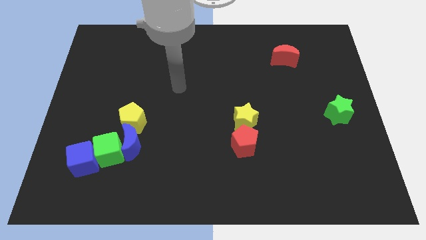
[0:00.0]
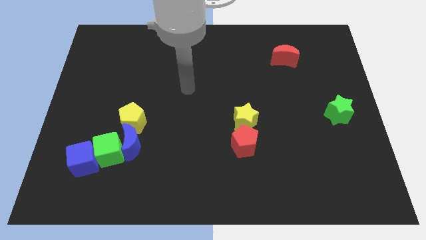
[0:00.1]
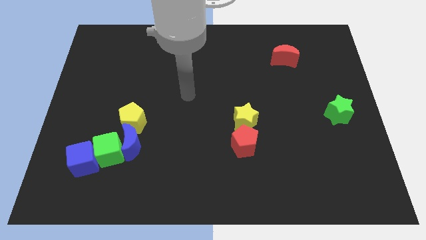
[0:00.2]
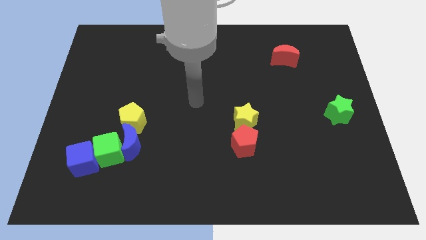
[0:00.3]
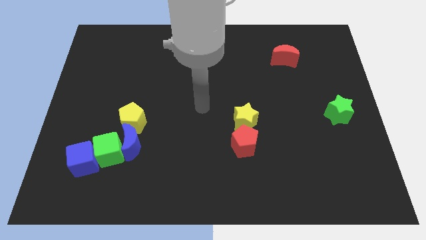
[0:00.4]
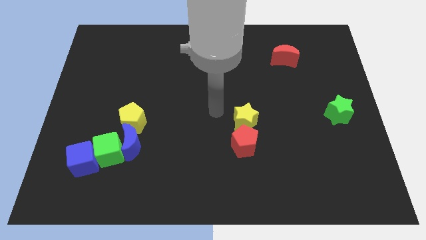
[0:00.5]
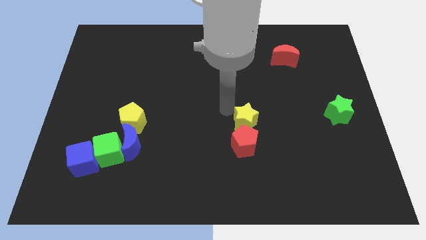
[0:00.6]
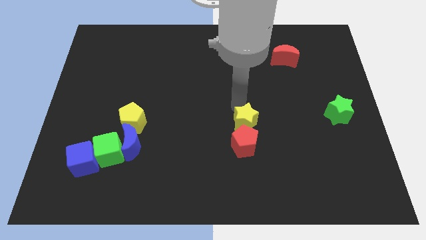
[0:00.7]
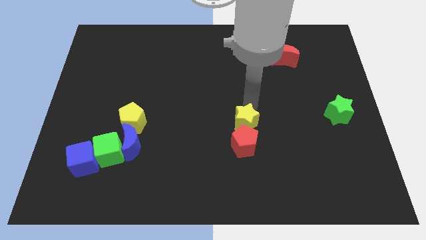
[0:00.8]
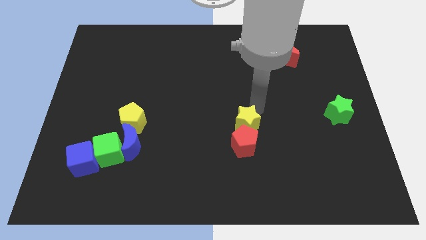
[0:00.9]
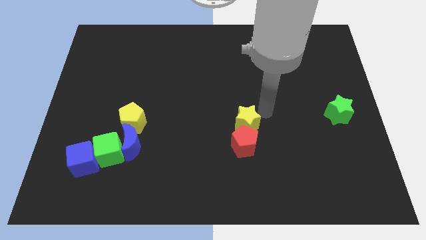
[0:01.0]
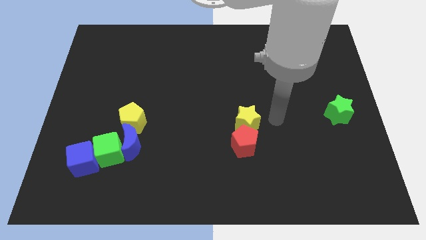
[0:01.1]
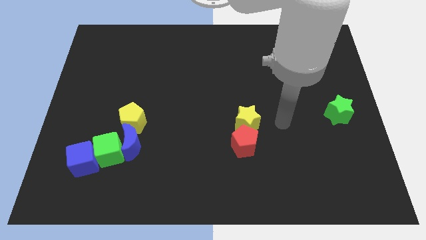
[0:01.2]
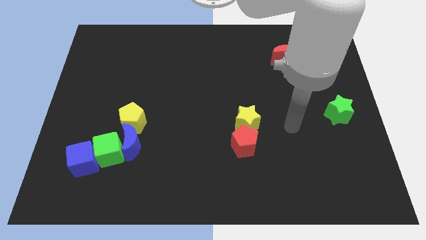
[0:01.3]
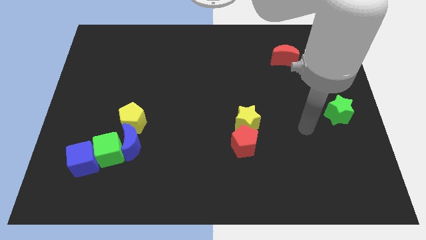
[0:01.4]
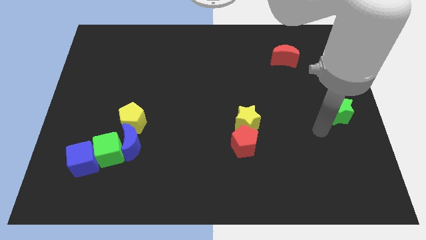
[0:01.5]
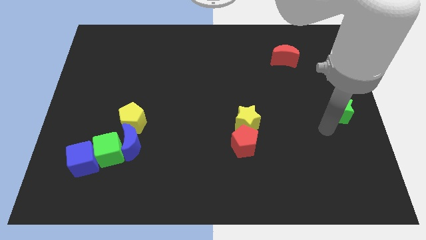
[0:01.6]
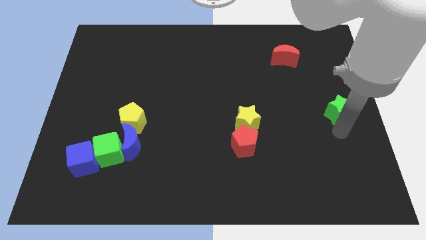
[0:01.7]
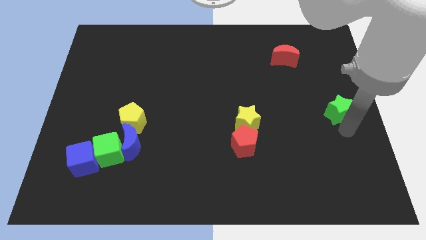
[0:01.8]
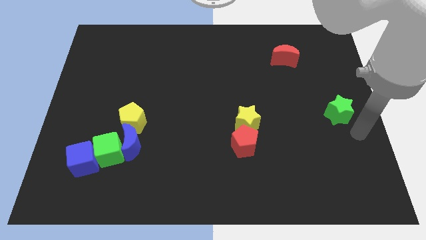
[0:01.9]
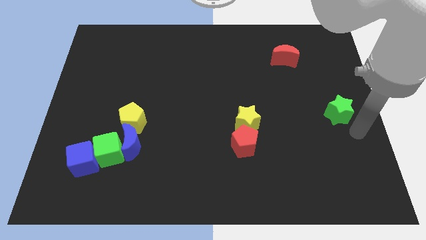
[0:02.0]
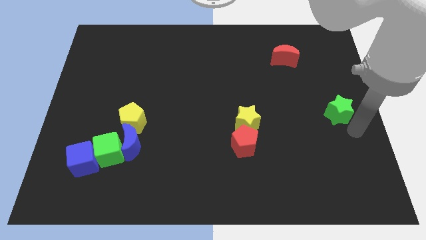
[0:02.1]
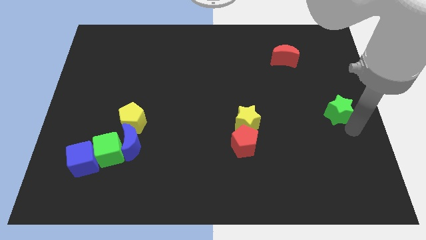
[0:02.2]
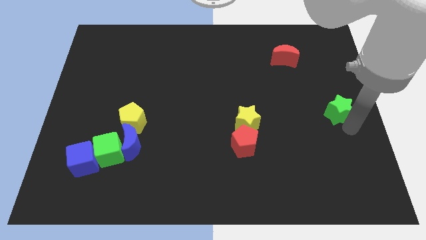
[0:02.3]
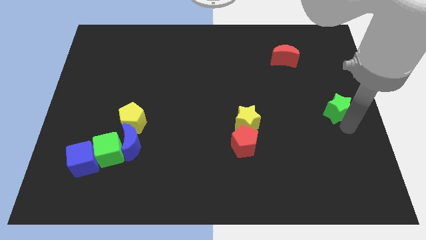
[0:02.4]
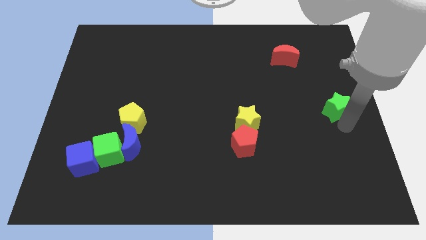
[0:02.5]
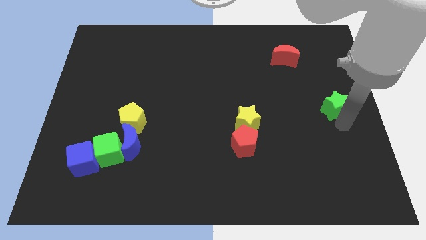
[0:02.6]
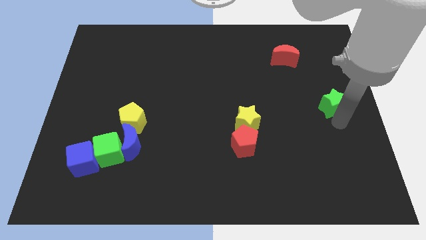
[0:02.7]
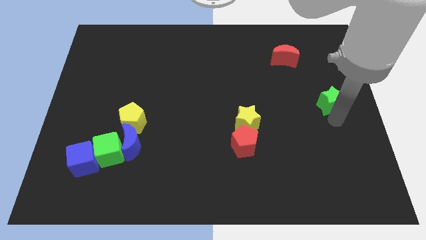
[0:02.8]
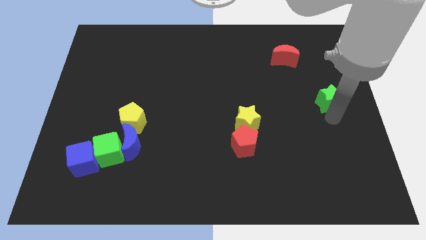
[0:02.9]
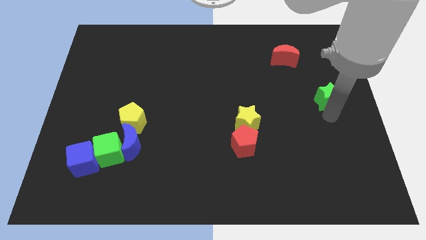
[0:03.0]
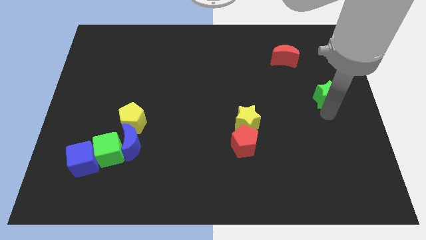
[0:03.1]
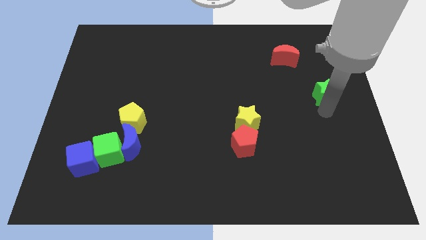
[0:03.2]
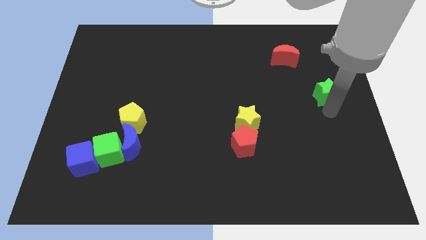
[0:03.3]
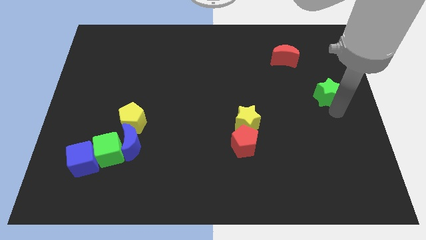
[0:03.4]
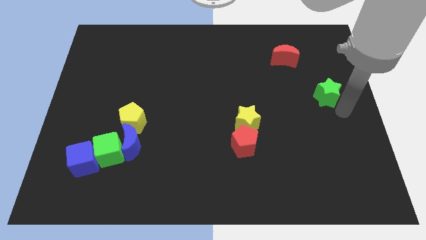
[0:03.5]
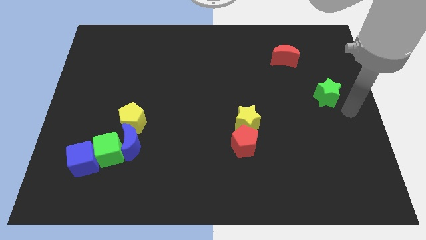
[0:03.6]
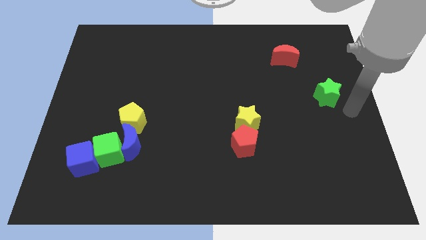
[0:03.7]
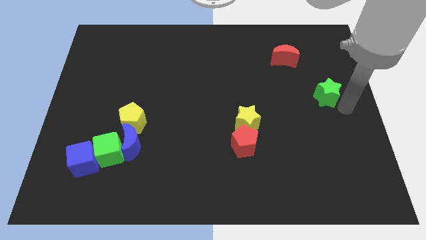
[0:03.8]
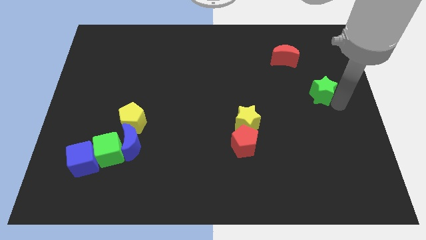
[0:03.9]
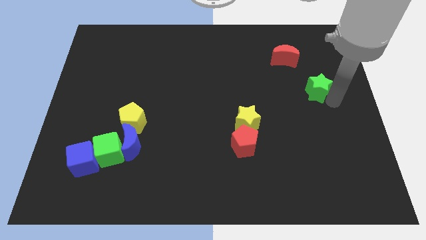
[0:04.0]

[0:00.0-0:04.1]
slightly slide the green star upwards and left diagonally

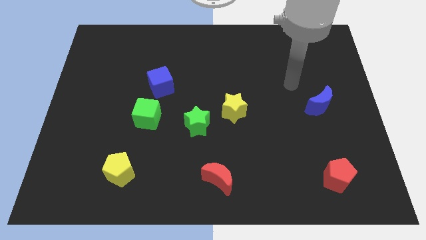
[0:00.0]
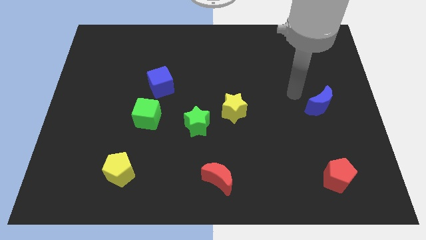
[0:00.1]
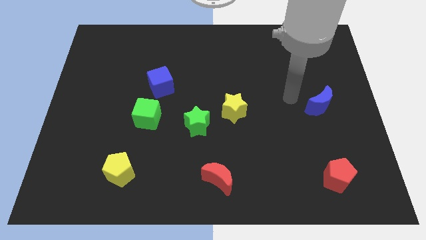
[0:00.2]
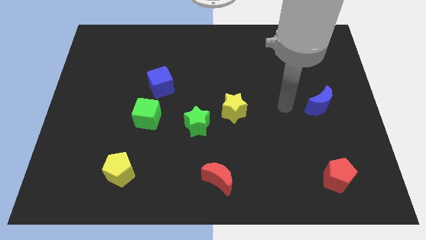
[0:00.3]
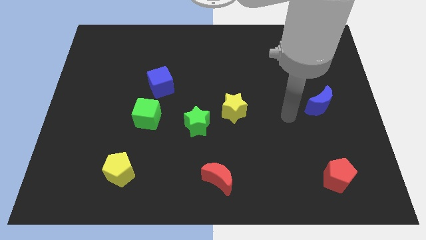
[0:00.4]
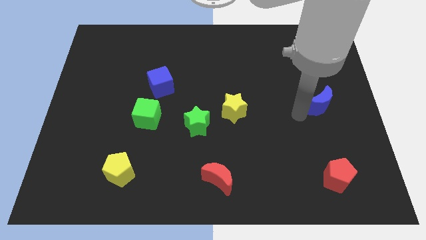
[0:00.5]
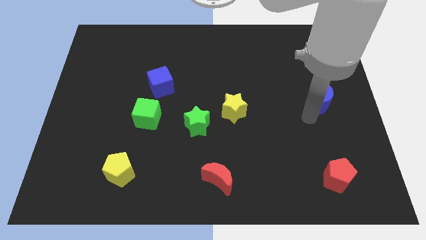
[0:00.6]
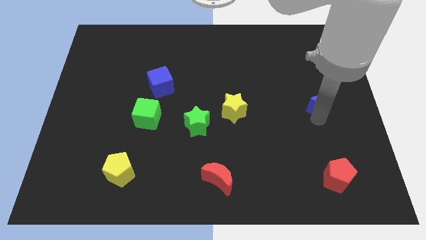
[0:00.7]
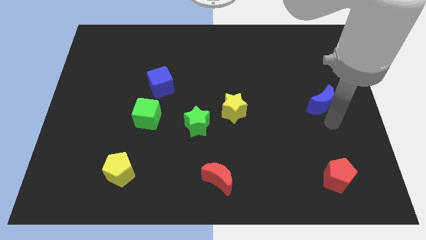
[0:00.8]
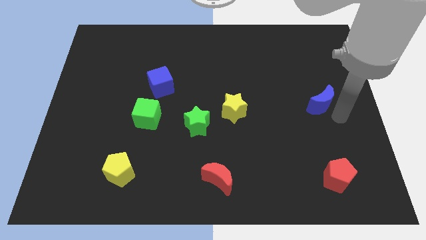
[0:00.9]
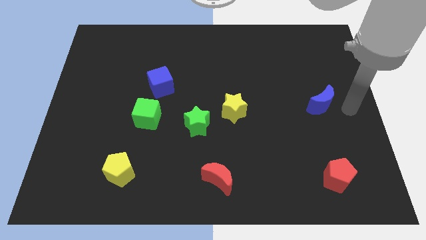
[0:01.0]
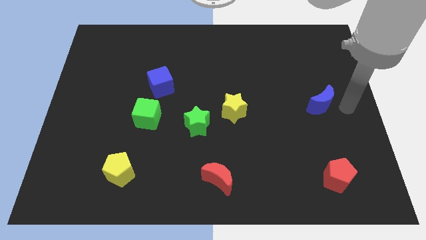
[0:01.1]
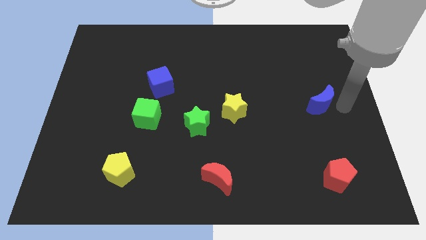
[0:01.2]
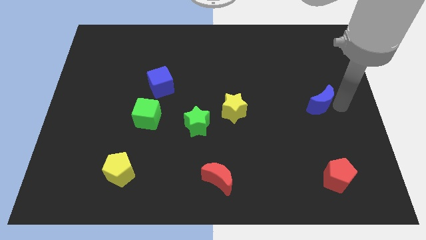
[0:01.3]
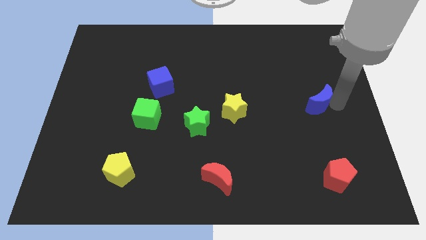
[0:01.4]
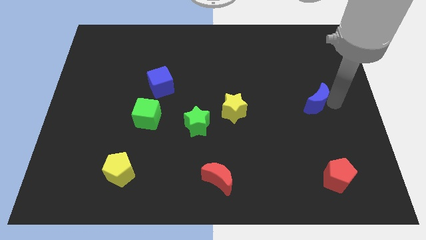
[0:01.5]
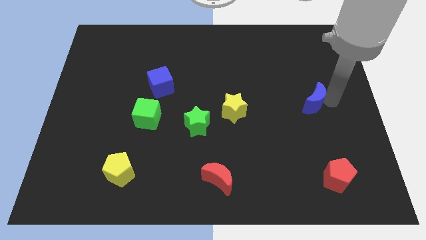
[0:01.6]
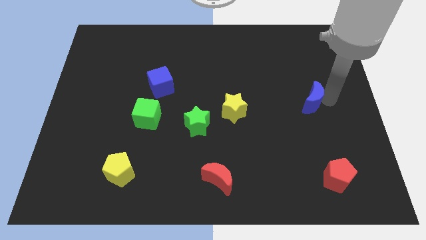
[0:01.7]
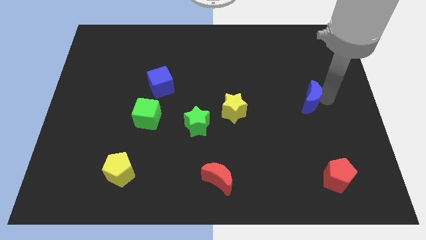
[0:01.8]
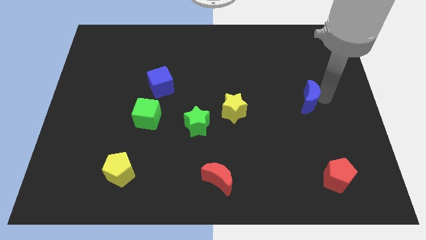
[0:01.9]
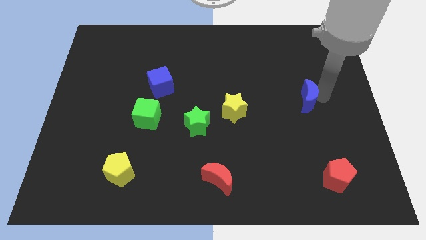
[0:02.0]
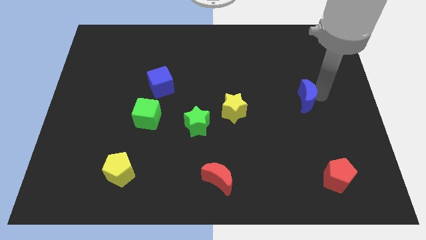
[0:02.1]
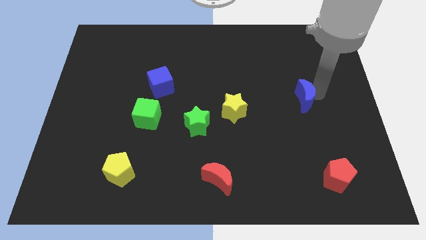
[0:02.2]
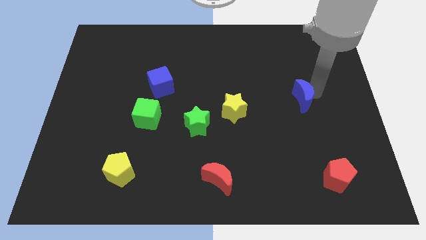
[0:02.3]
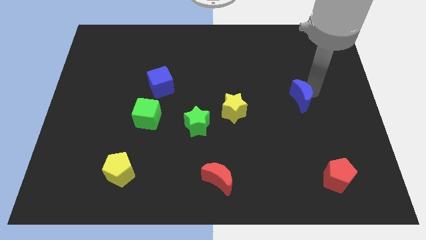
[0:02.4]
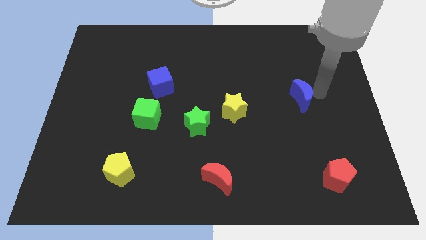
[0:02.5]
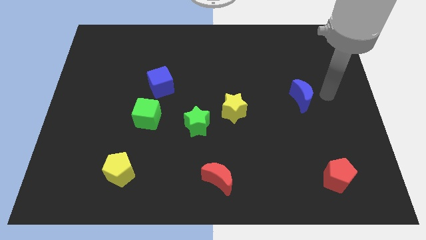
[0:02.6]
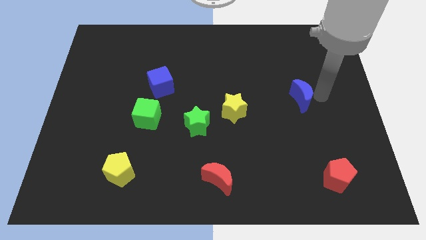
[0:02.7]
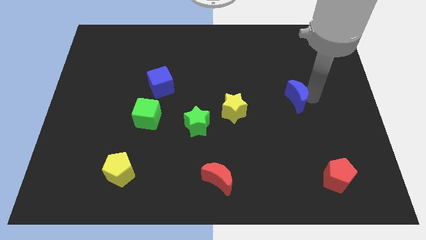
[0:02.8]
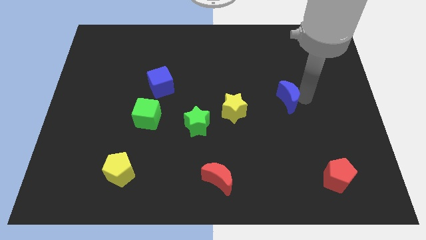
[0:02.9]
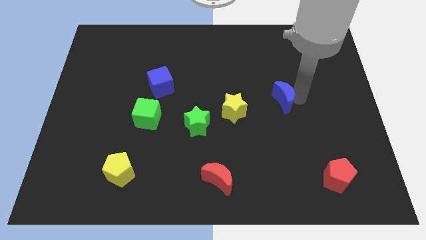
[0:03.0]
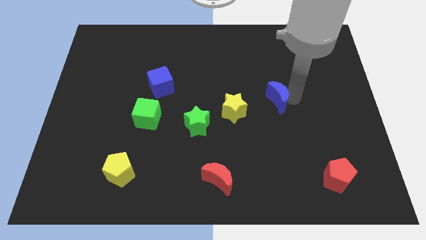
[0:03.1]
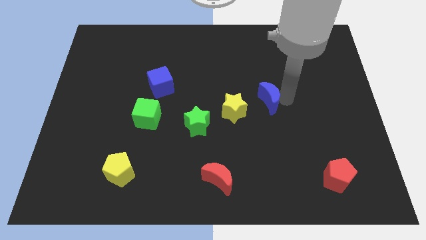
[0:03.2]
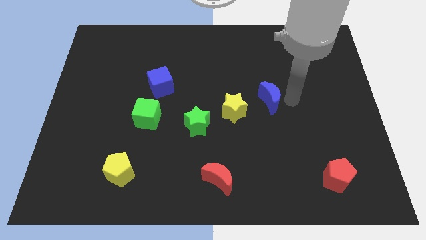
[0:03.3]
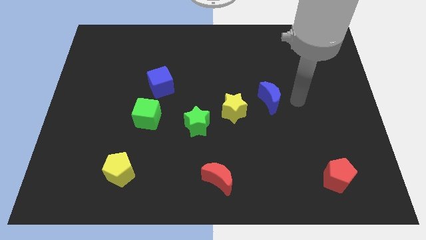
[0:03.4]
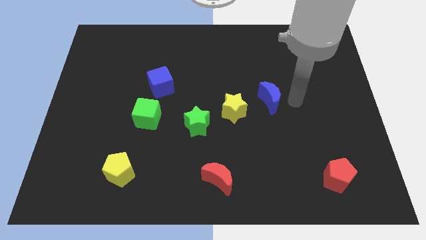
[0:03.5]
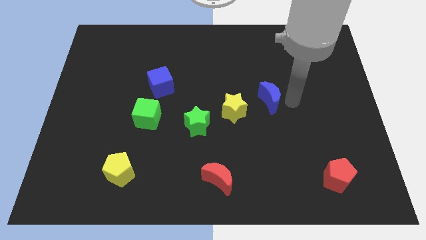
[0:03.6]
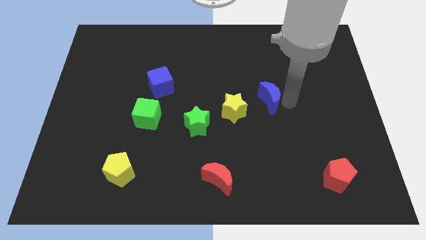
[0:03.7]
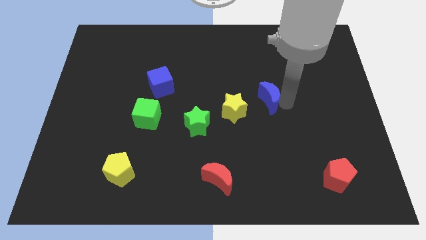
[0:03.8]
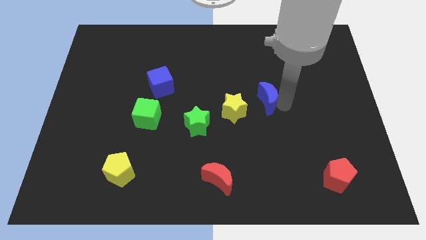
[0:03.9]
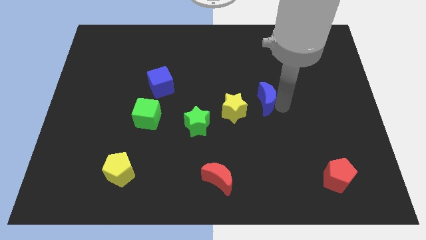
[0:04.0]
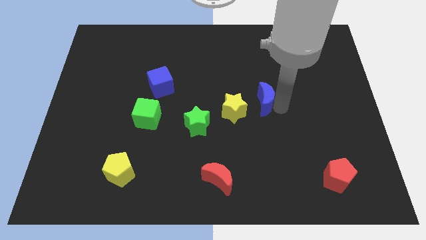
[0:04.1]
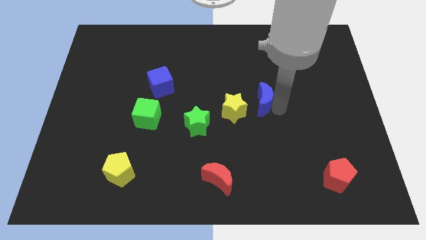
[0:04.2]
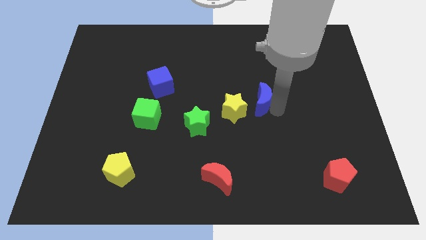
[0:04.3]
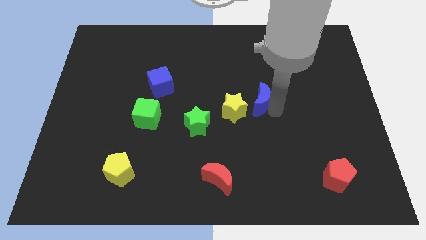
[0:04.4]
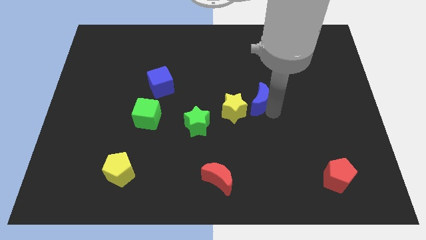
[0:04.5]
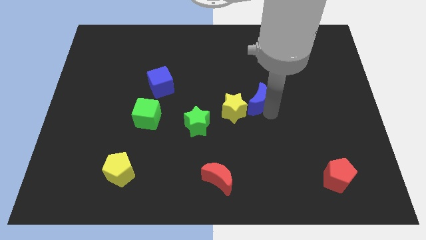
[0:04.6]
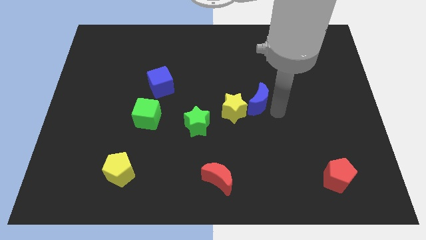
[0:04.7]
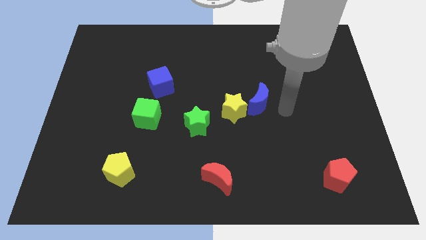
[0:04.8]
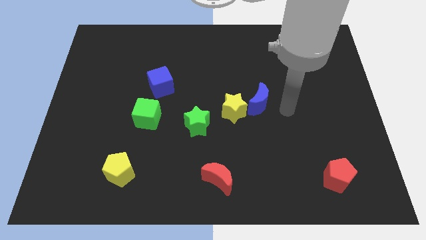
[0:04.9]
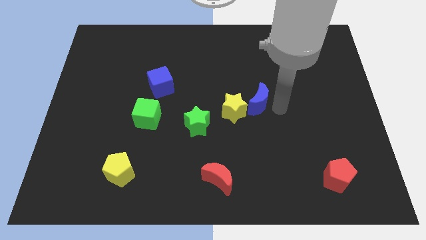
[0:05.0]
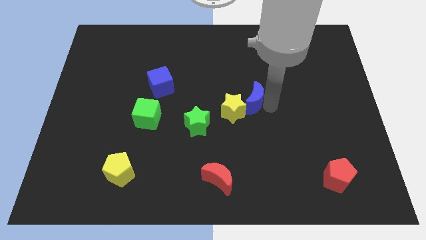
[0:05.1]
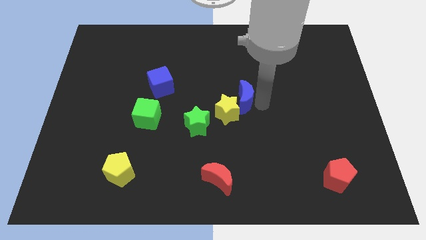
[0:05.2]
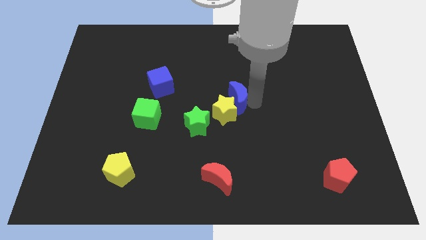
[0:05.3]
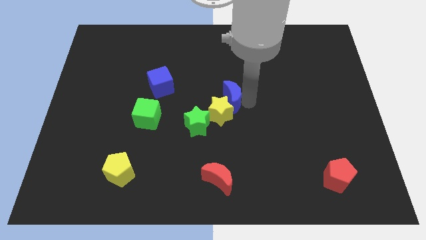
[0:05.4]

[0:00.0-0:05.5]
move the blue moon to the left
